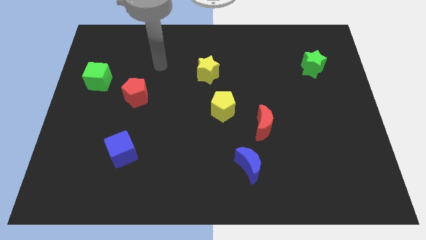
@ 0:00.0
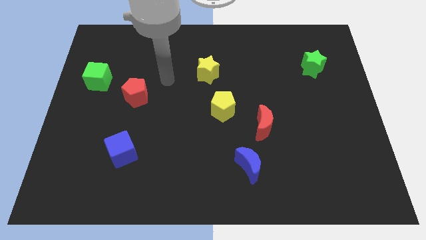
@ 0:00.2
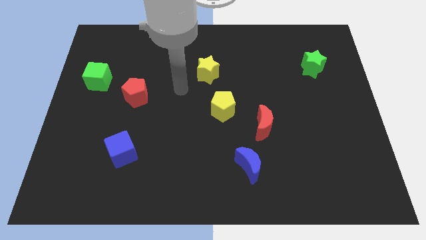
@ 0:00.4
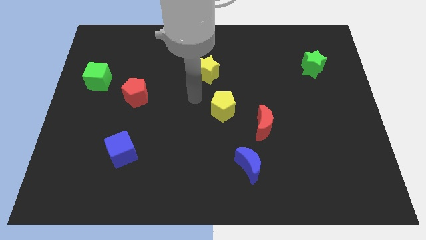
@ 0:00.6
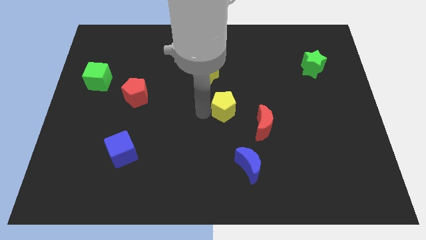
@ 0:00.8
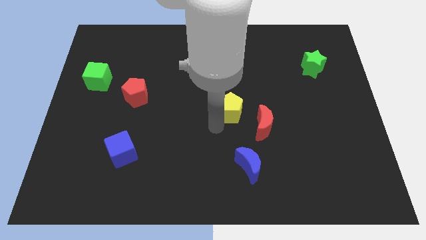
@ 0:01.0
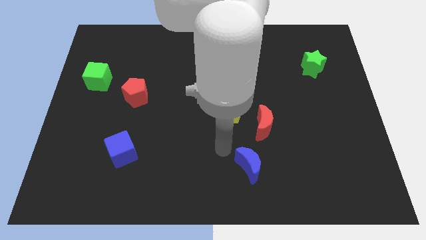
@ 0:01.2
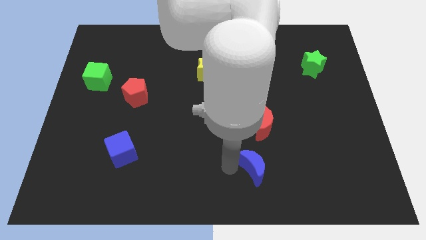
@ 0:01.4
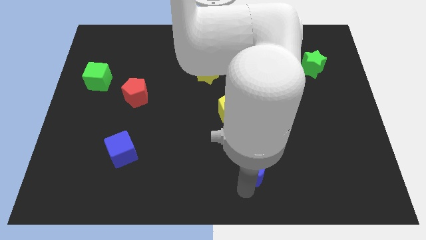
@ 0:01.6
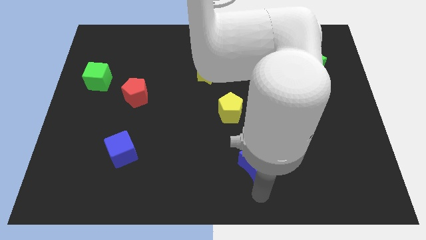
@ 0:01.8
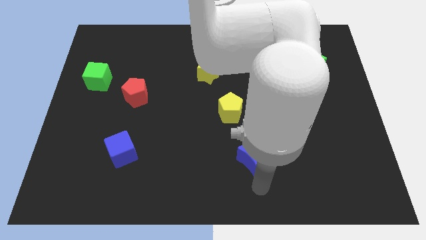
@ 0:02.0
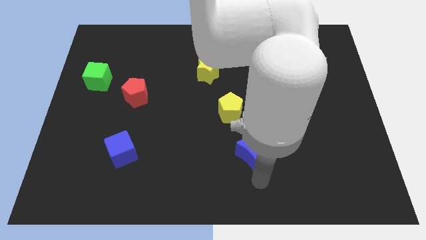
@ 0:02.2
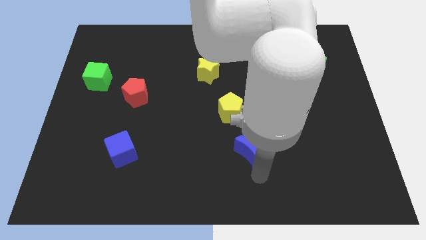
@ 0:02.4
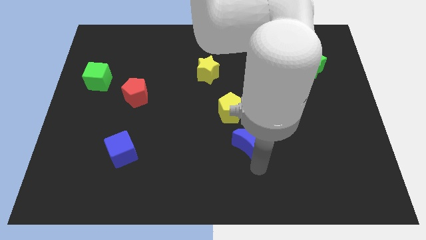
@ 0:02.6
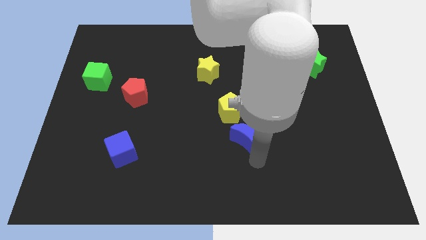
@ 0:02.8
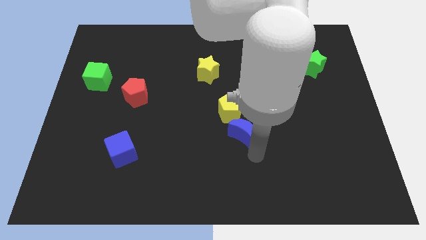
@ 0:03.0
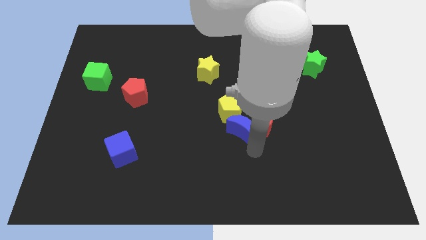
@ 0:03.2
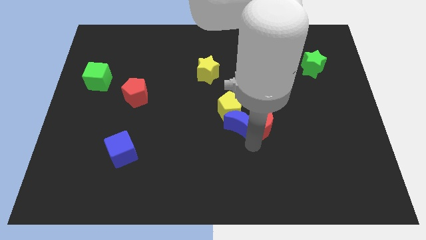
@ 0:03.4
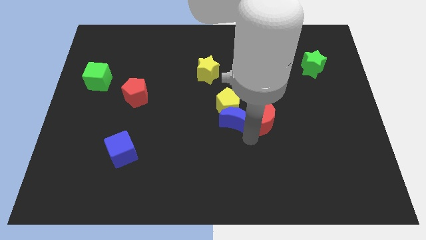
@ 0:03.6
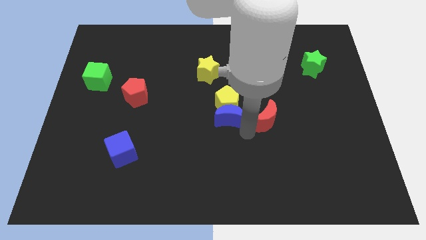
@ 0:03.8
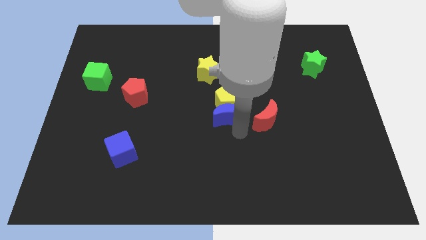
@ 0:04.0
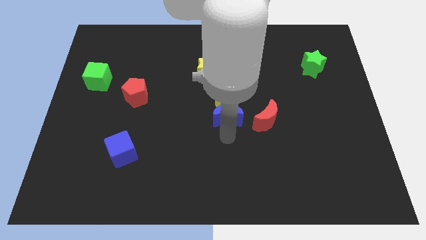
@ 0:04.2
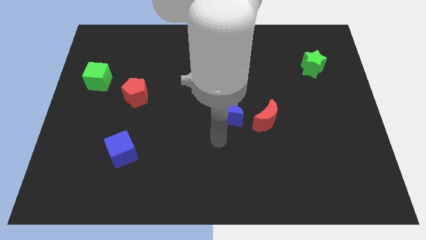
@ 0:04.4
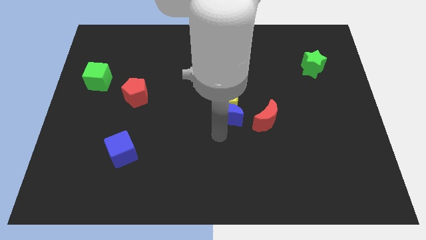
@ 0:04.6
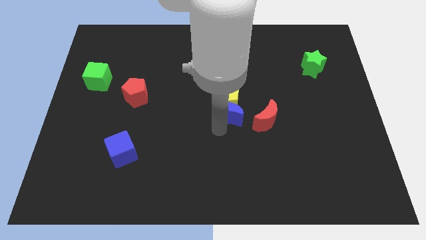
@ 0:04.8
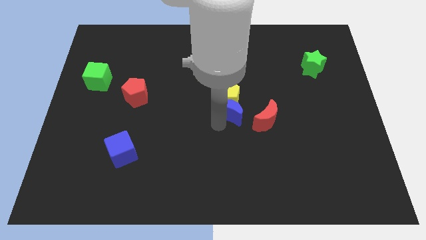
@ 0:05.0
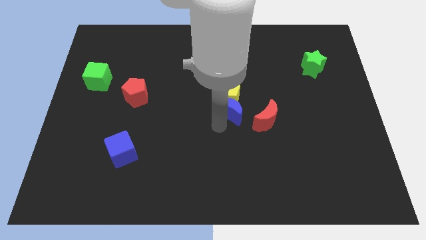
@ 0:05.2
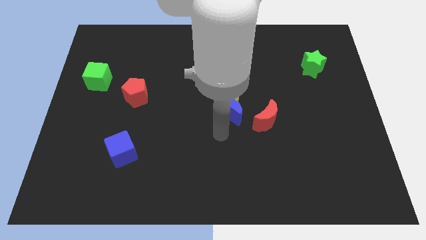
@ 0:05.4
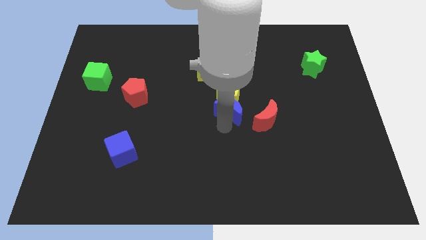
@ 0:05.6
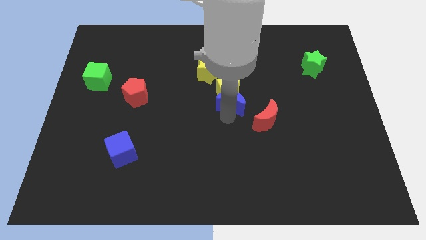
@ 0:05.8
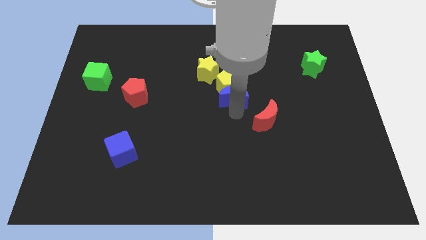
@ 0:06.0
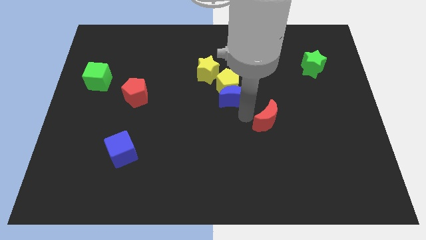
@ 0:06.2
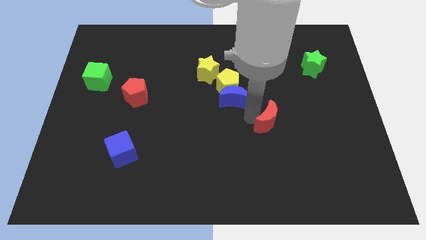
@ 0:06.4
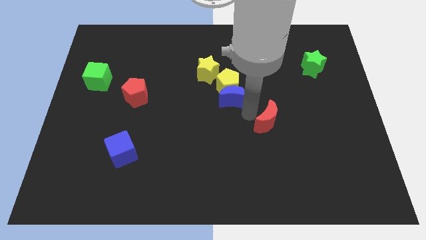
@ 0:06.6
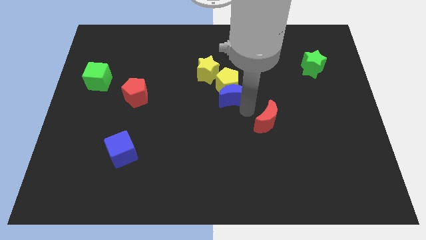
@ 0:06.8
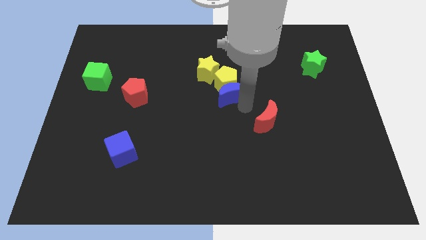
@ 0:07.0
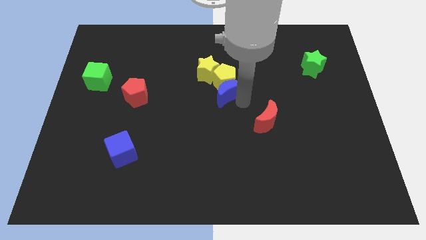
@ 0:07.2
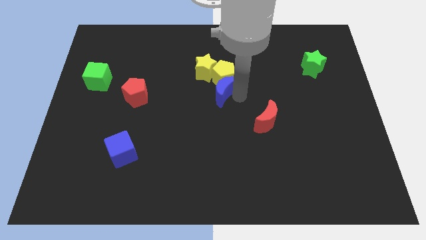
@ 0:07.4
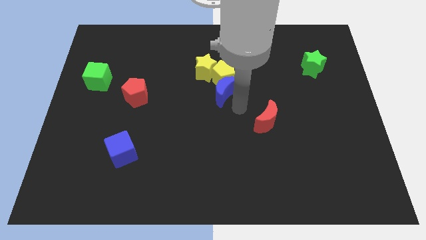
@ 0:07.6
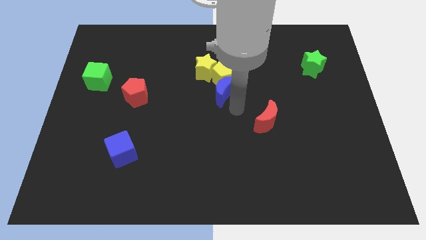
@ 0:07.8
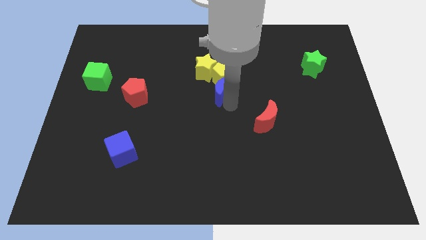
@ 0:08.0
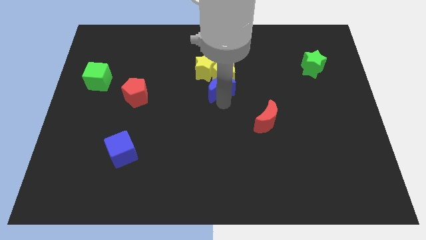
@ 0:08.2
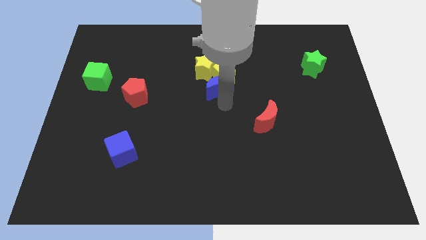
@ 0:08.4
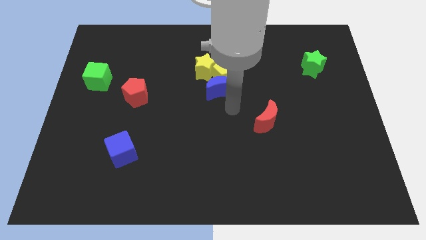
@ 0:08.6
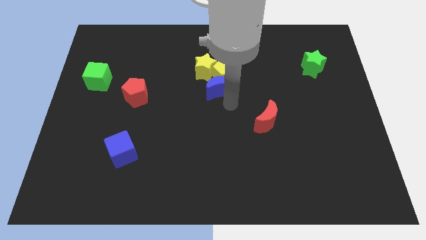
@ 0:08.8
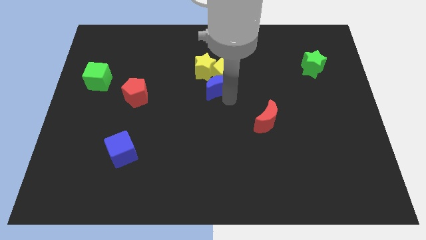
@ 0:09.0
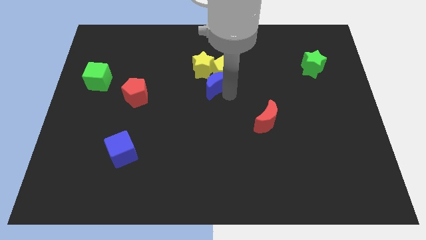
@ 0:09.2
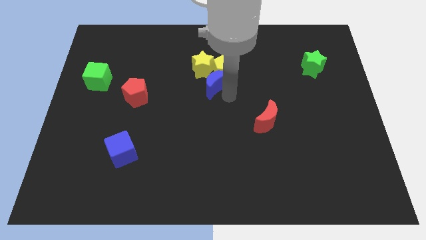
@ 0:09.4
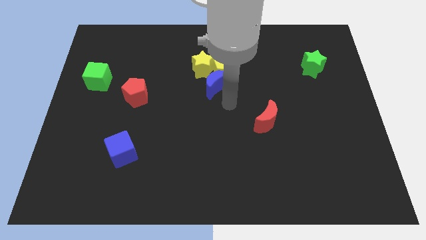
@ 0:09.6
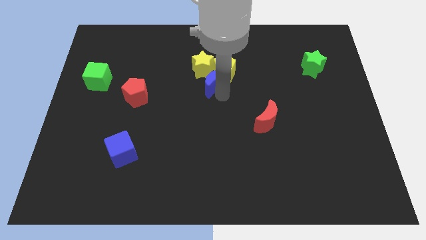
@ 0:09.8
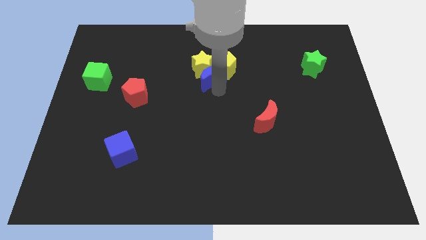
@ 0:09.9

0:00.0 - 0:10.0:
slide the blue moon close to the yellow star

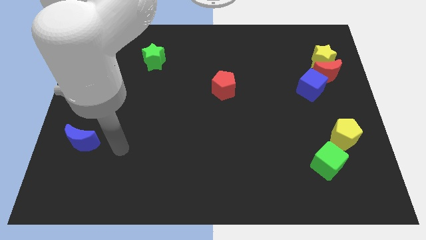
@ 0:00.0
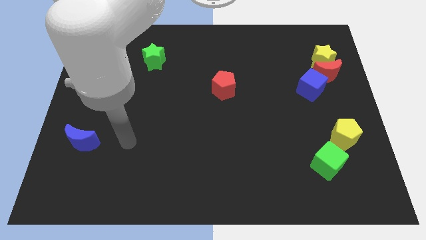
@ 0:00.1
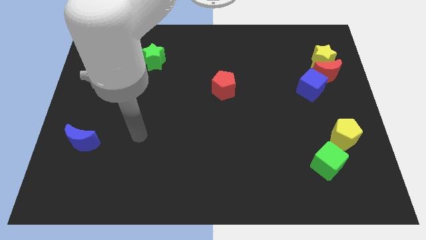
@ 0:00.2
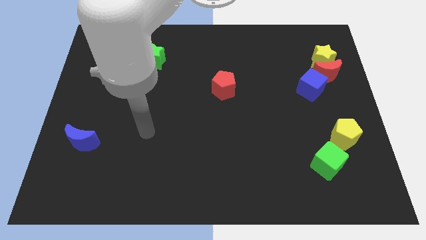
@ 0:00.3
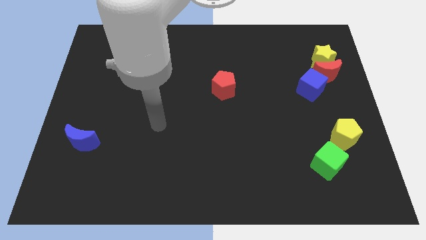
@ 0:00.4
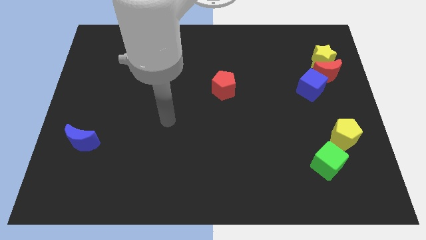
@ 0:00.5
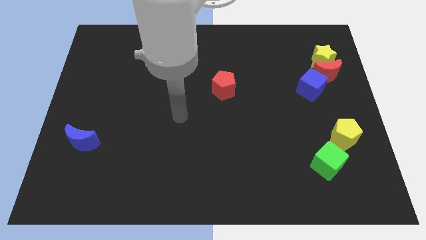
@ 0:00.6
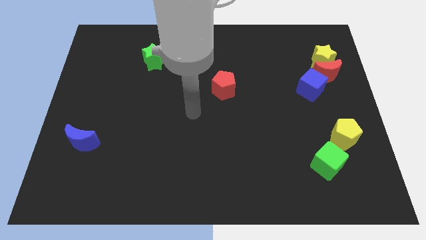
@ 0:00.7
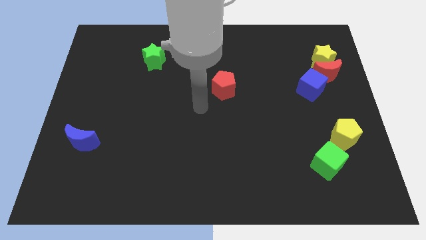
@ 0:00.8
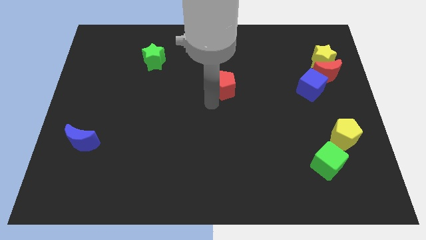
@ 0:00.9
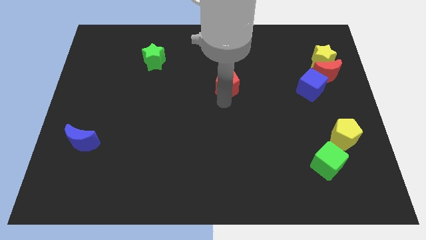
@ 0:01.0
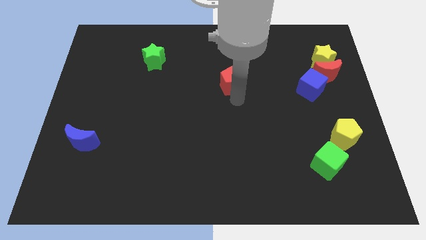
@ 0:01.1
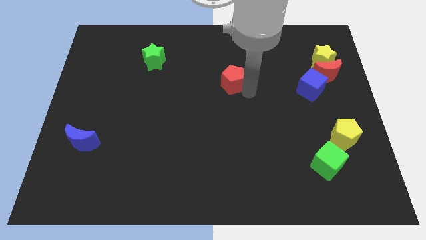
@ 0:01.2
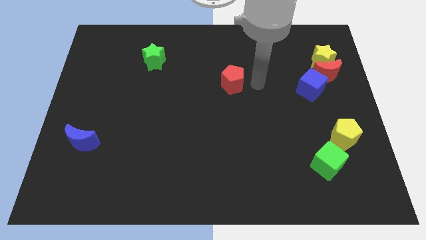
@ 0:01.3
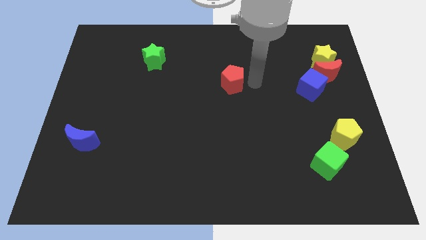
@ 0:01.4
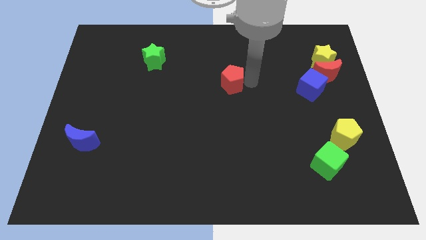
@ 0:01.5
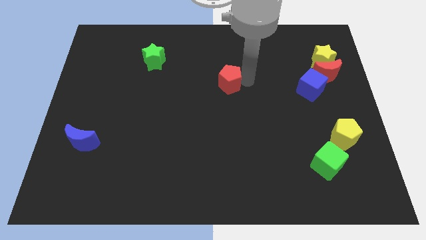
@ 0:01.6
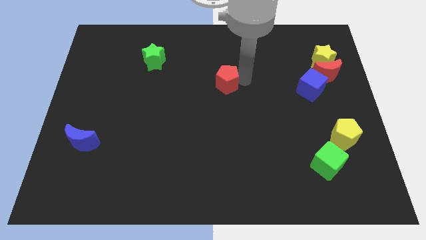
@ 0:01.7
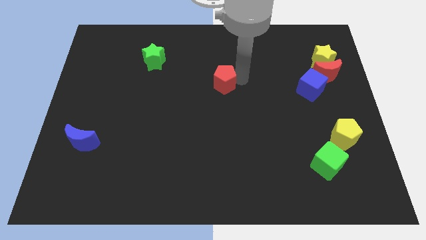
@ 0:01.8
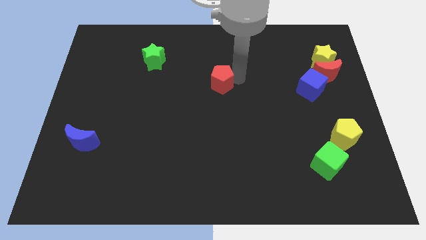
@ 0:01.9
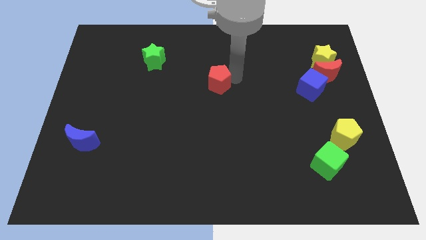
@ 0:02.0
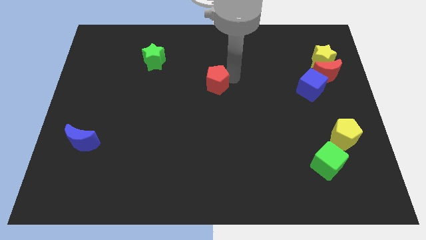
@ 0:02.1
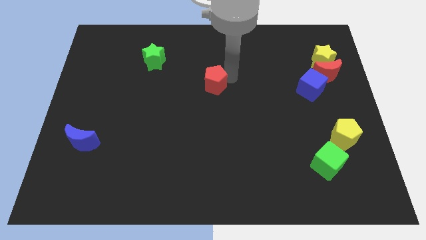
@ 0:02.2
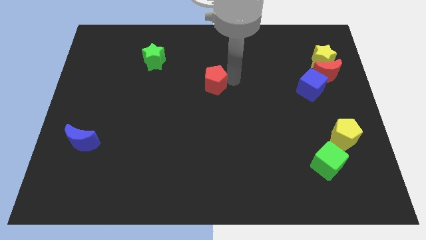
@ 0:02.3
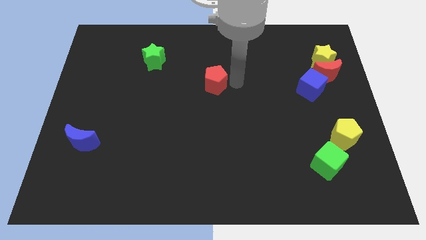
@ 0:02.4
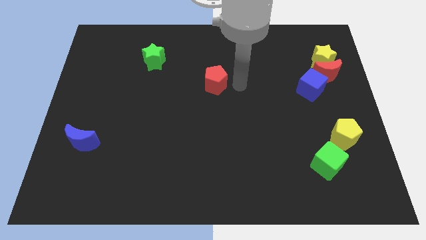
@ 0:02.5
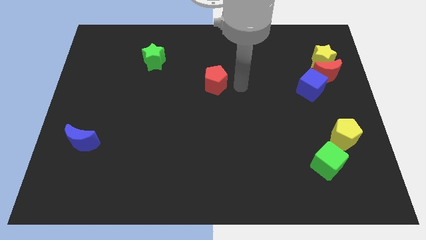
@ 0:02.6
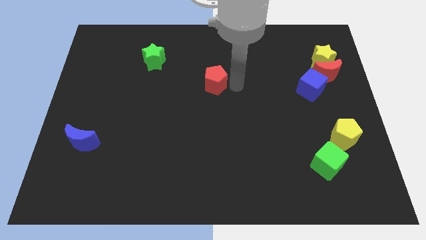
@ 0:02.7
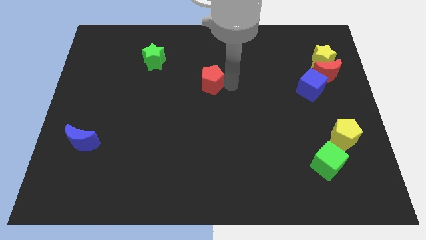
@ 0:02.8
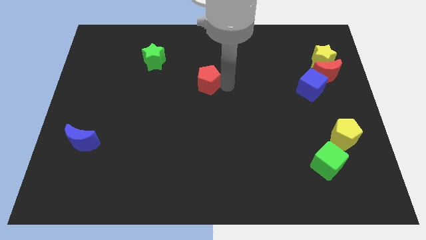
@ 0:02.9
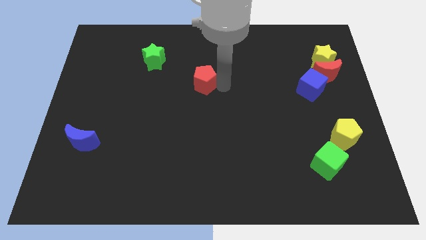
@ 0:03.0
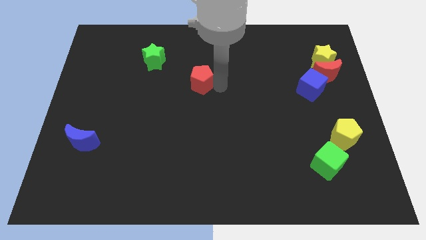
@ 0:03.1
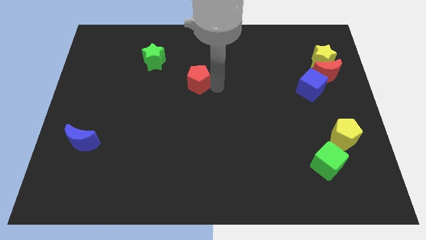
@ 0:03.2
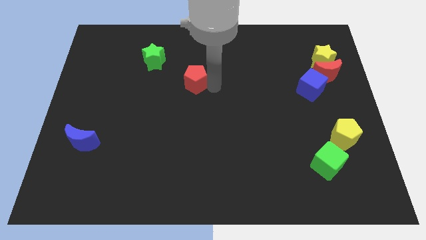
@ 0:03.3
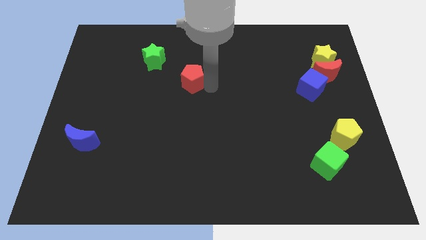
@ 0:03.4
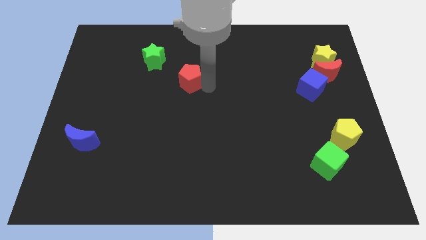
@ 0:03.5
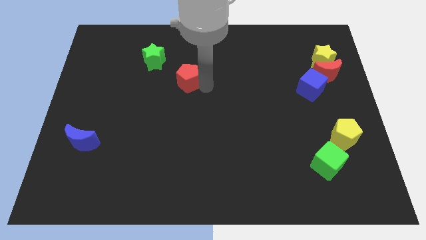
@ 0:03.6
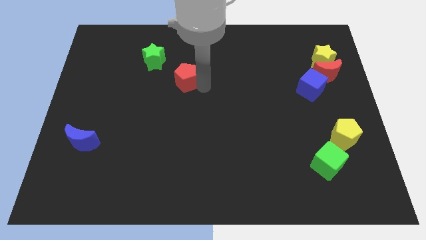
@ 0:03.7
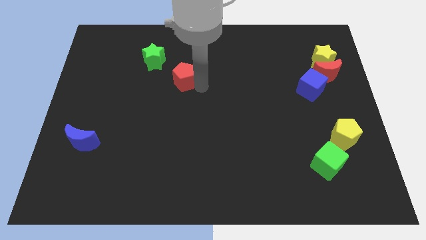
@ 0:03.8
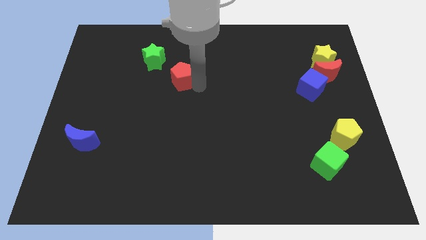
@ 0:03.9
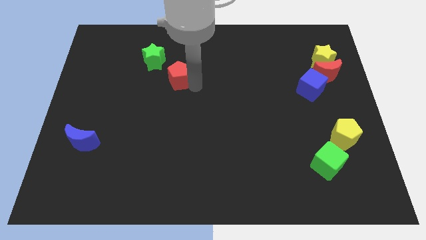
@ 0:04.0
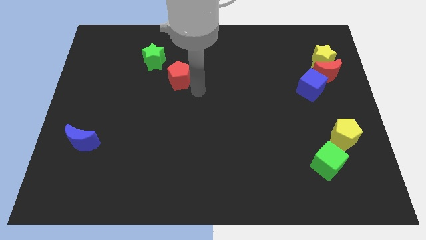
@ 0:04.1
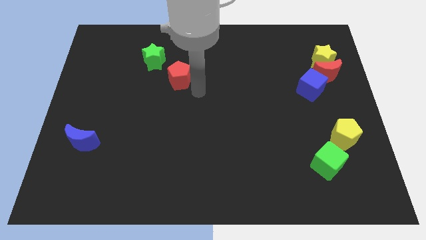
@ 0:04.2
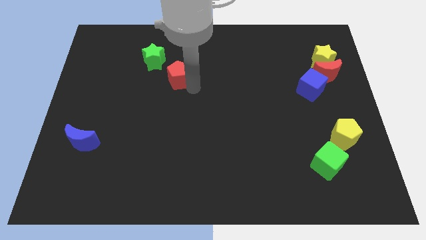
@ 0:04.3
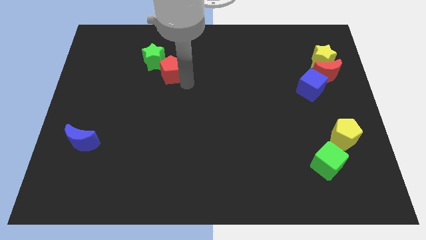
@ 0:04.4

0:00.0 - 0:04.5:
push the red pentagon close to the green star
